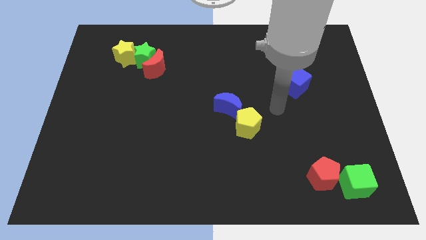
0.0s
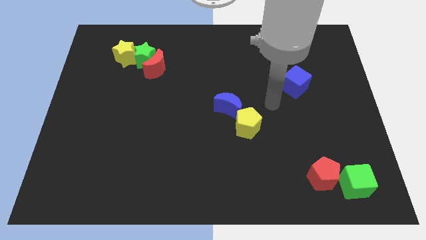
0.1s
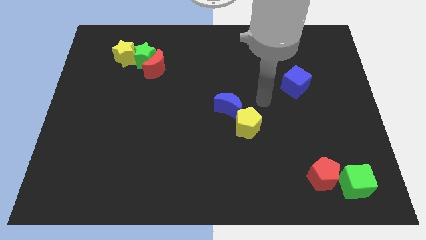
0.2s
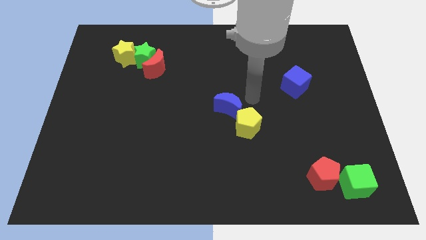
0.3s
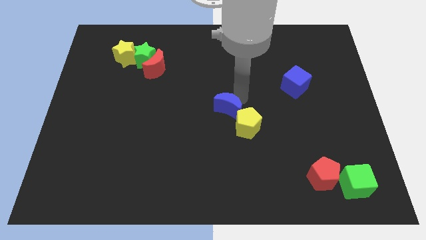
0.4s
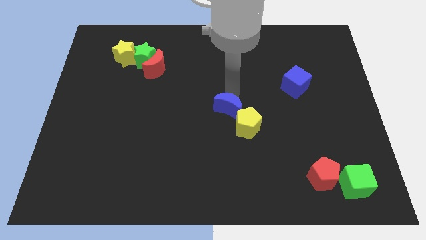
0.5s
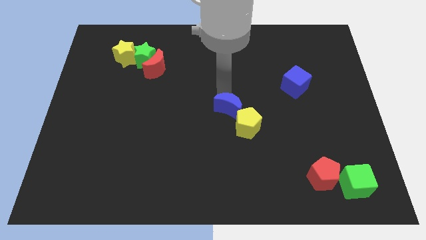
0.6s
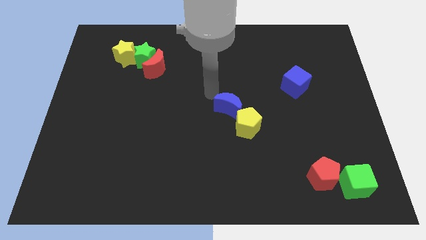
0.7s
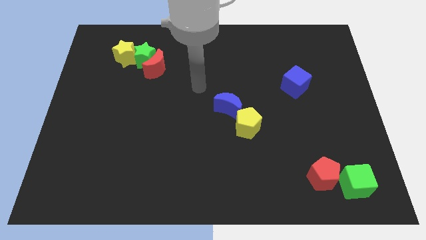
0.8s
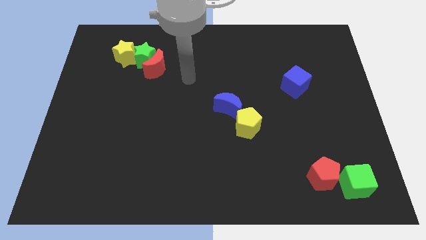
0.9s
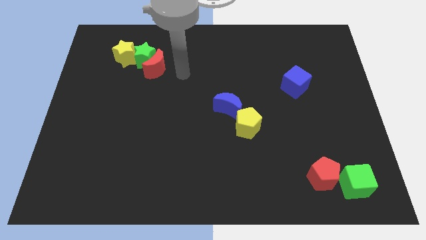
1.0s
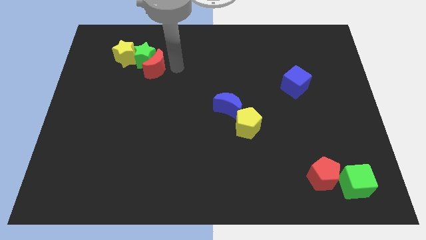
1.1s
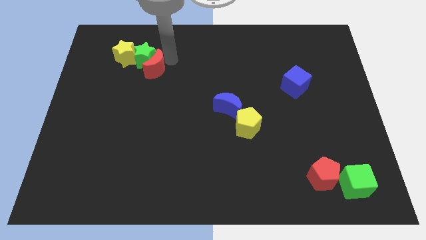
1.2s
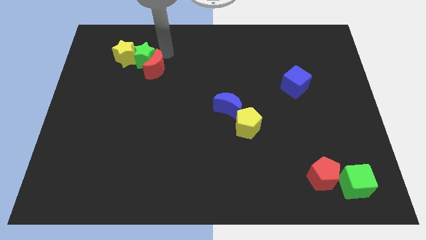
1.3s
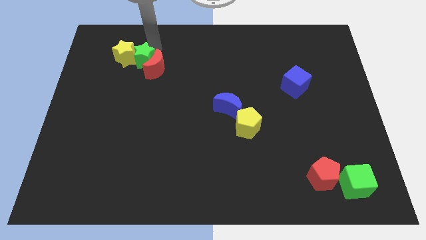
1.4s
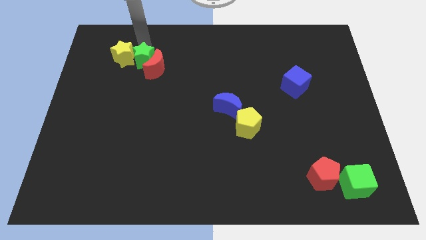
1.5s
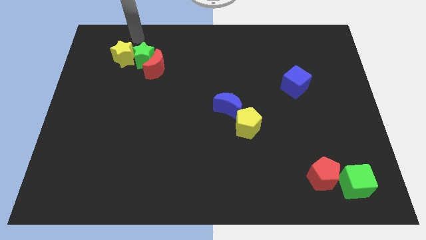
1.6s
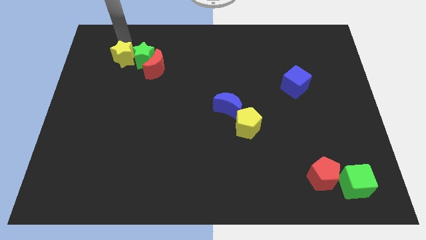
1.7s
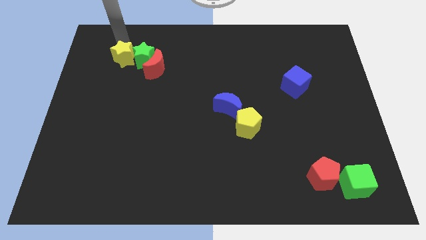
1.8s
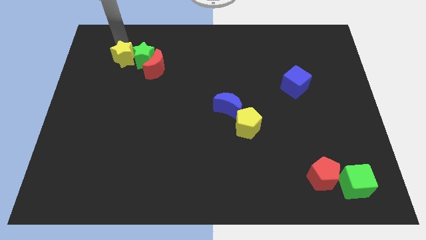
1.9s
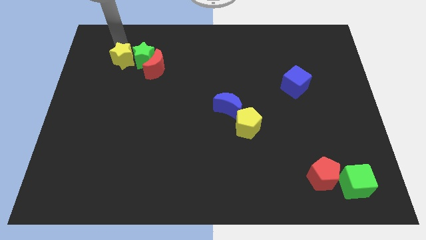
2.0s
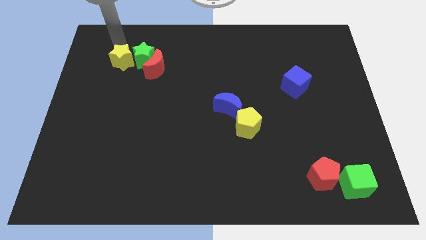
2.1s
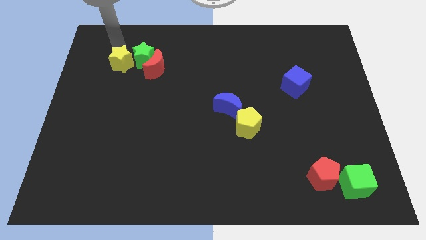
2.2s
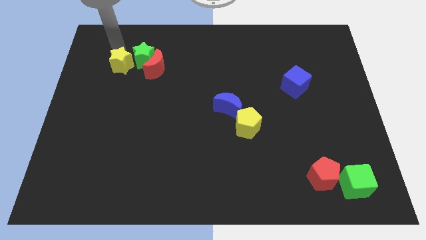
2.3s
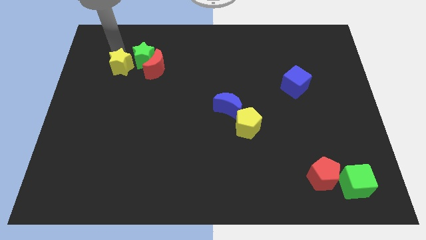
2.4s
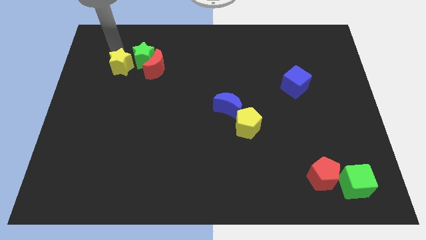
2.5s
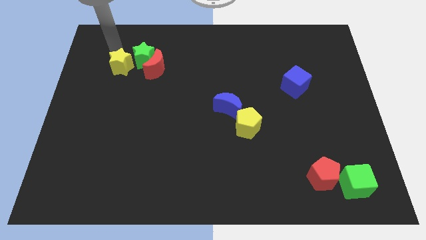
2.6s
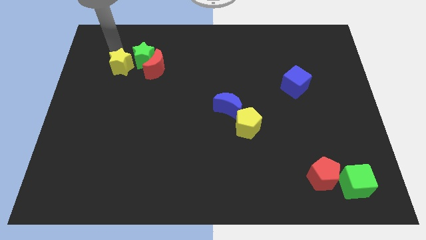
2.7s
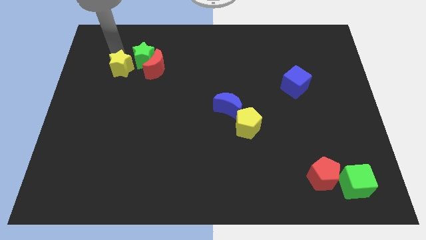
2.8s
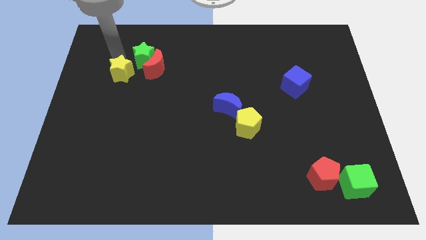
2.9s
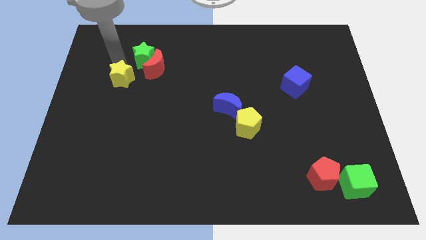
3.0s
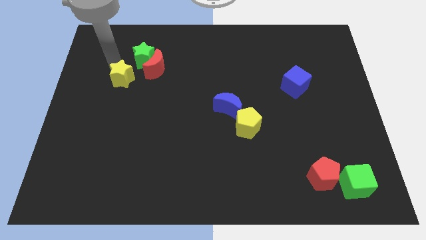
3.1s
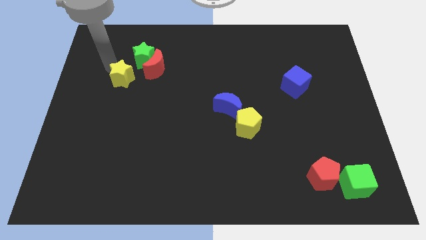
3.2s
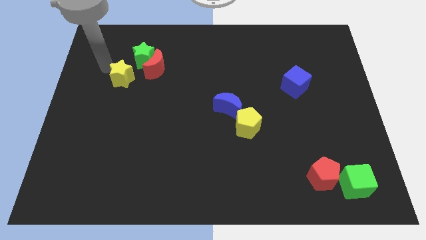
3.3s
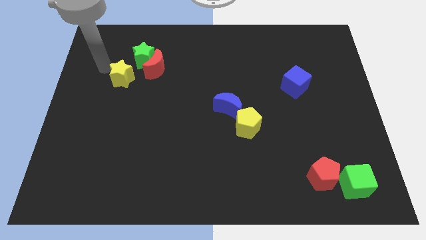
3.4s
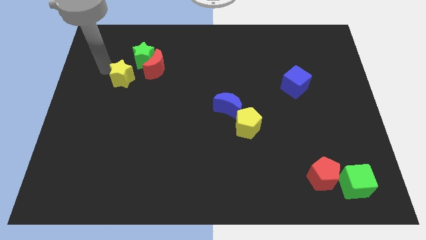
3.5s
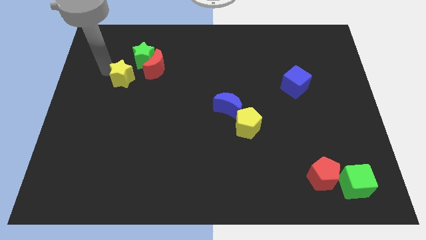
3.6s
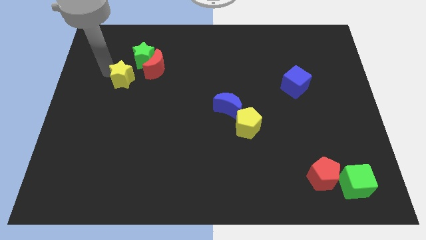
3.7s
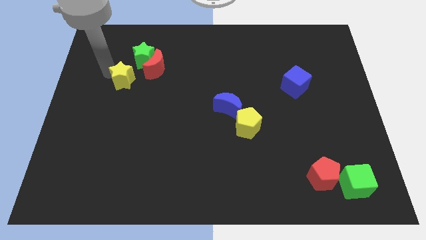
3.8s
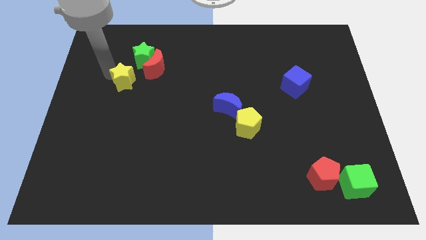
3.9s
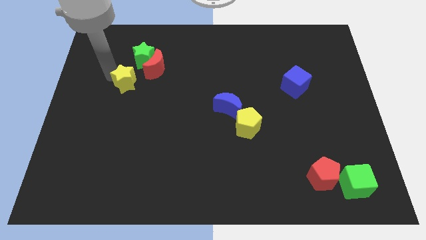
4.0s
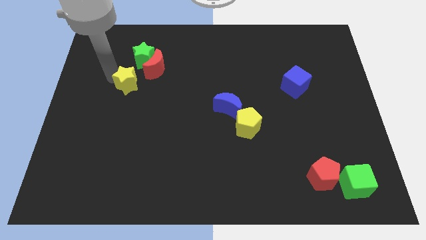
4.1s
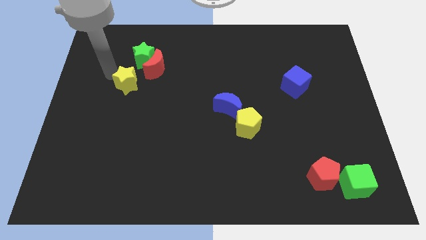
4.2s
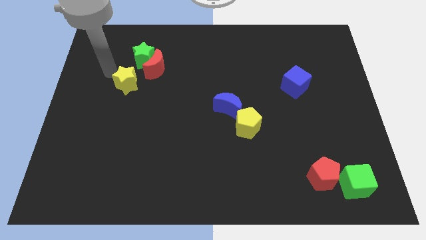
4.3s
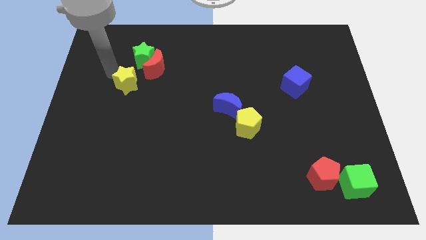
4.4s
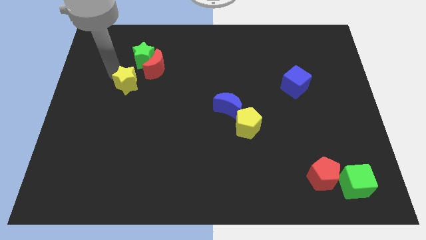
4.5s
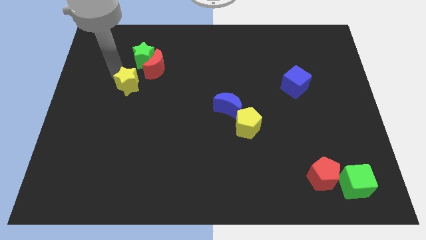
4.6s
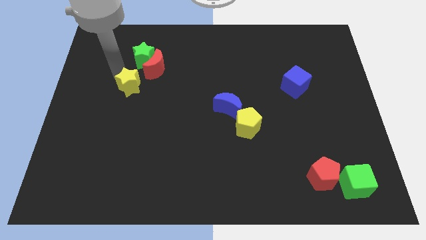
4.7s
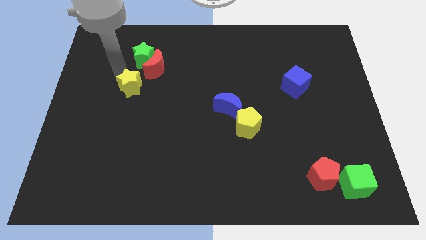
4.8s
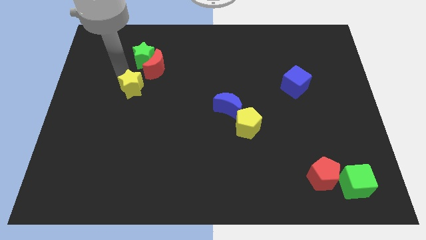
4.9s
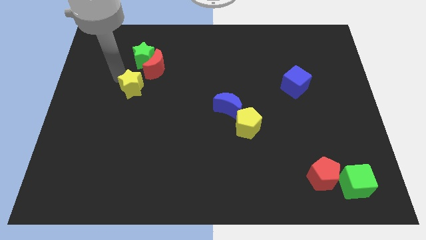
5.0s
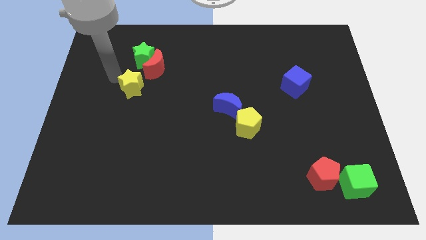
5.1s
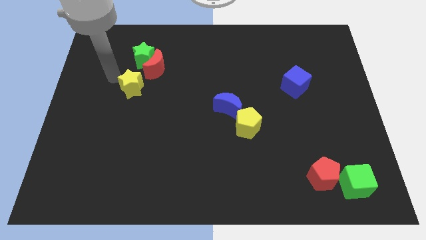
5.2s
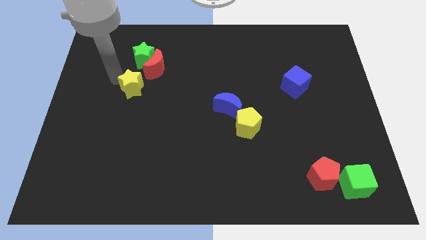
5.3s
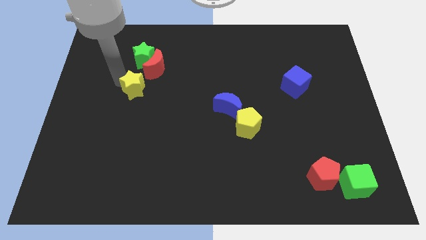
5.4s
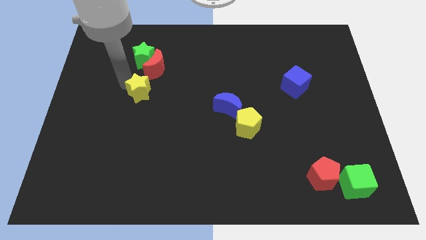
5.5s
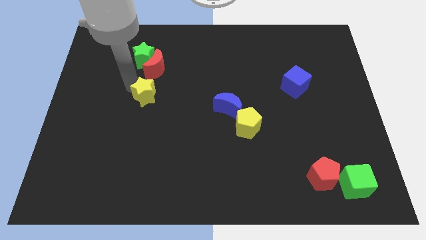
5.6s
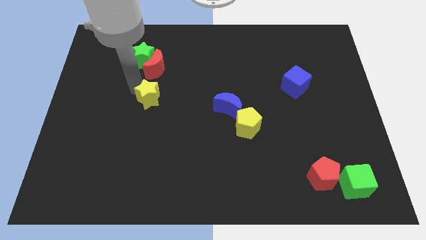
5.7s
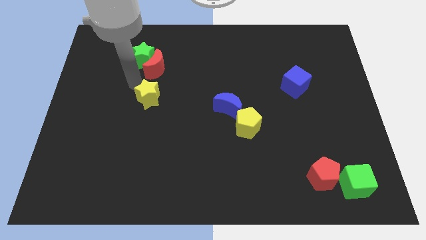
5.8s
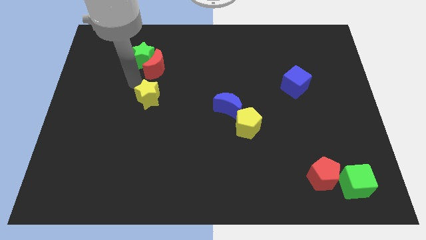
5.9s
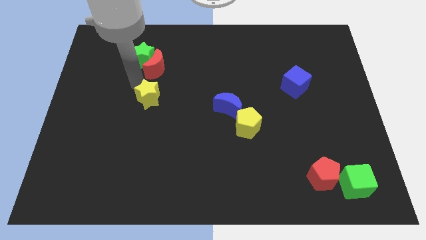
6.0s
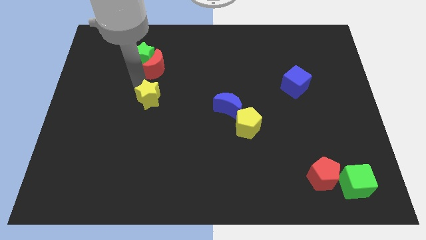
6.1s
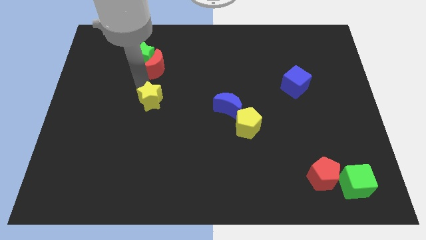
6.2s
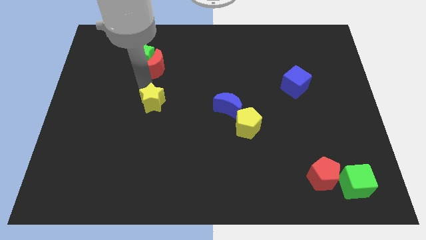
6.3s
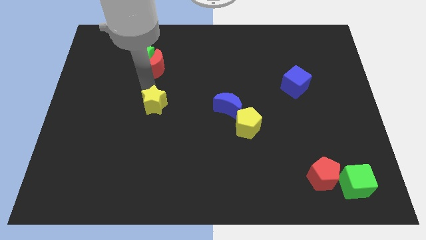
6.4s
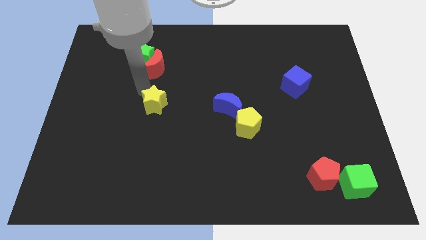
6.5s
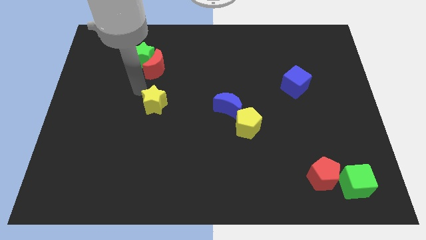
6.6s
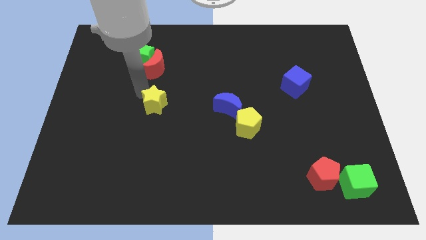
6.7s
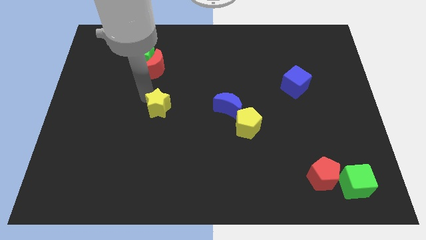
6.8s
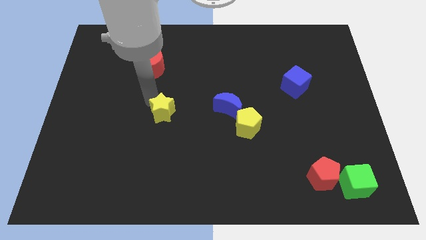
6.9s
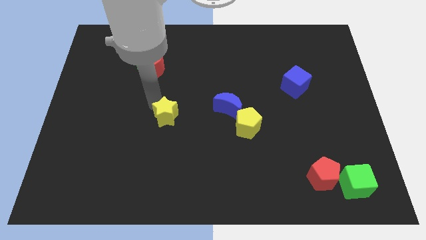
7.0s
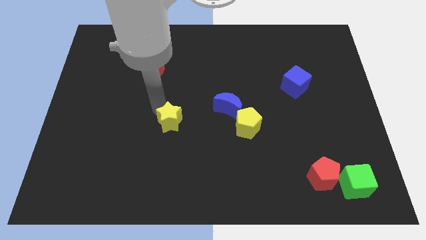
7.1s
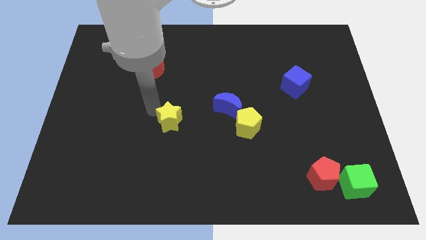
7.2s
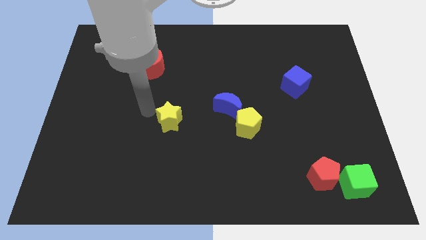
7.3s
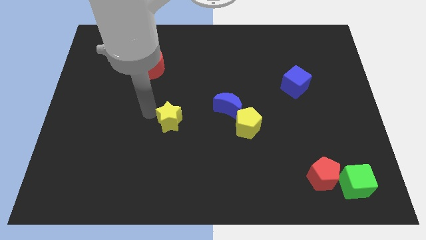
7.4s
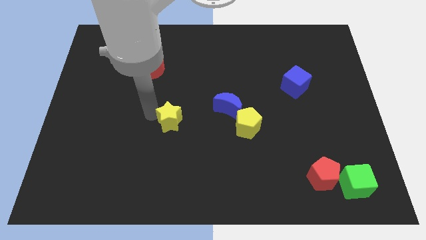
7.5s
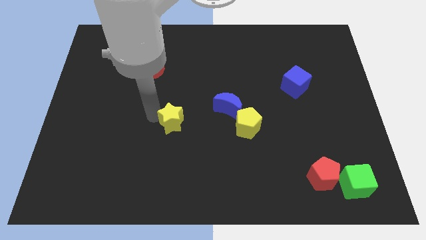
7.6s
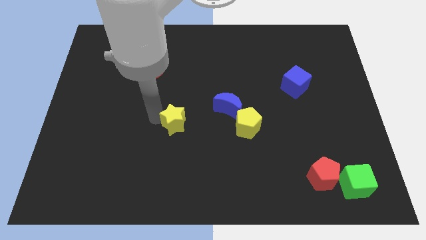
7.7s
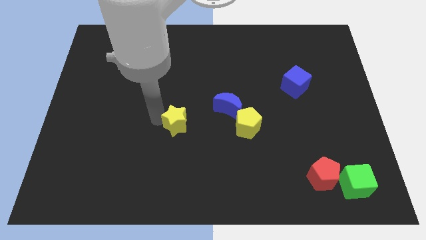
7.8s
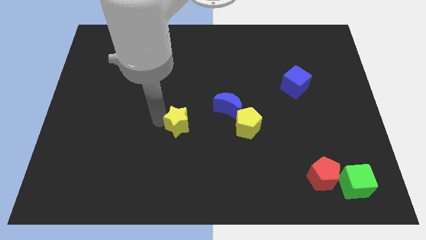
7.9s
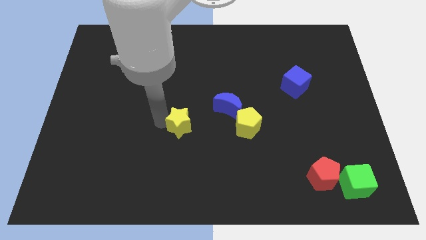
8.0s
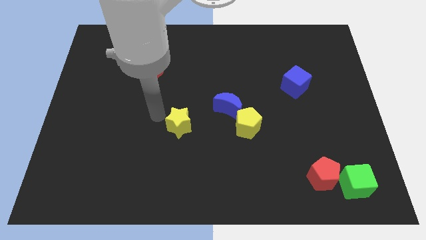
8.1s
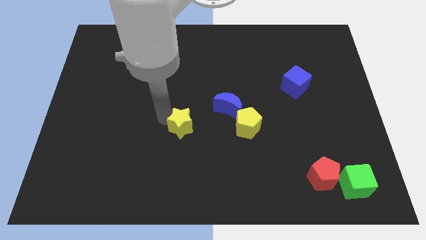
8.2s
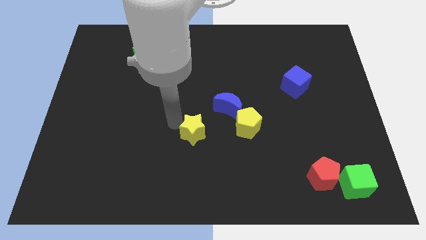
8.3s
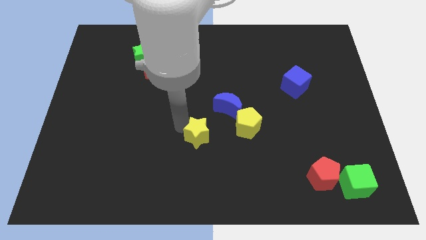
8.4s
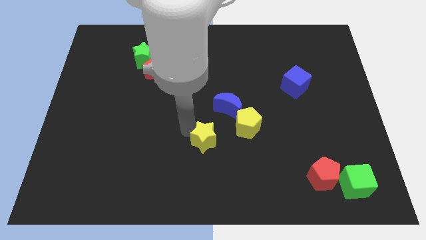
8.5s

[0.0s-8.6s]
put the yellow star diagonally down and to the left of the yellow pentagon
